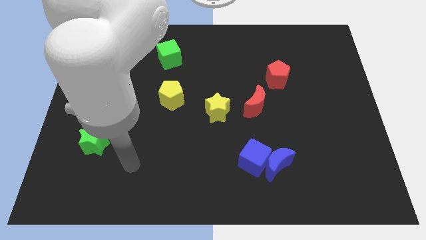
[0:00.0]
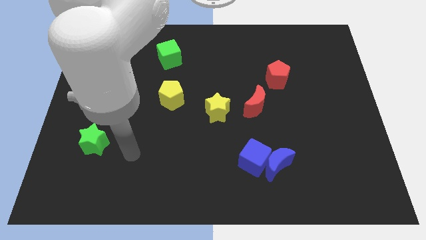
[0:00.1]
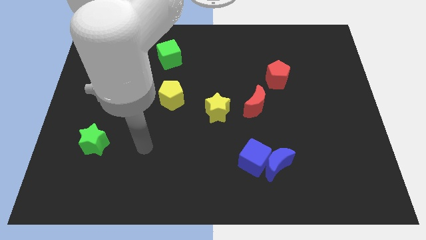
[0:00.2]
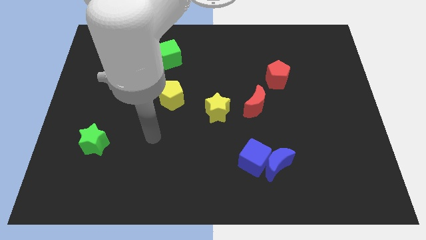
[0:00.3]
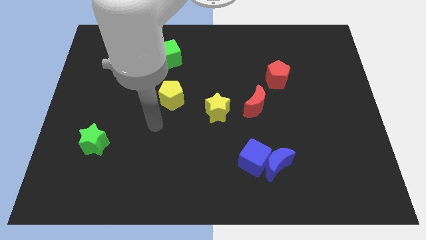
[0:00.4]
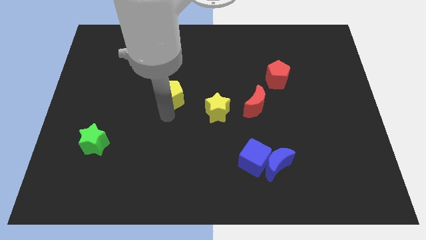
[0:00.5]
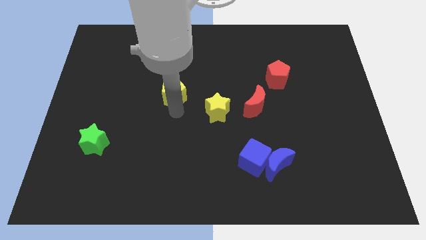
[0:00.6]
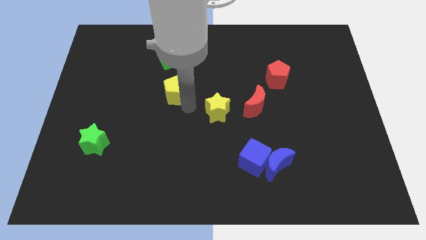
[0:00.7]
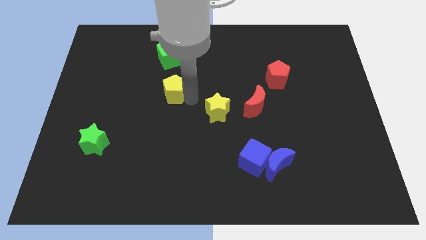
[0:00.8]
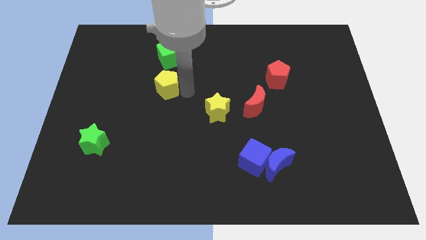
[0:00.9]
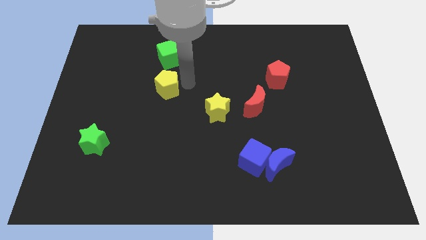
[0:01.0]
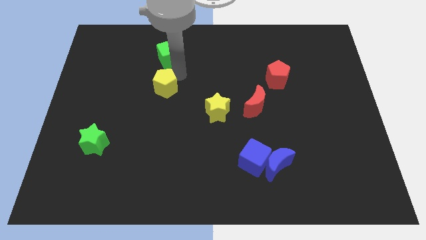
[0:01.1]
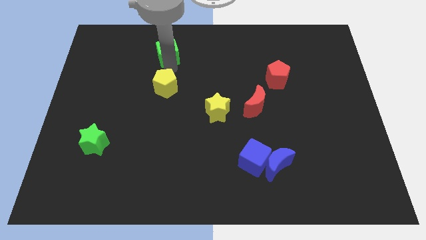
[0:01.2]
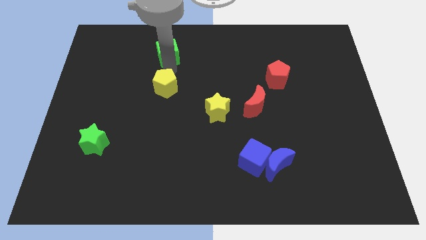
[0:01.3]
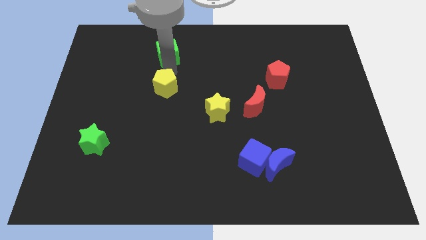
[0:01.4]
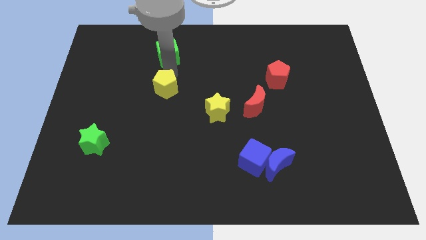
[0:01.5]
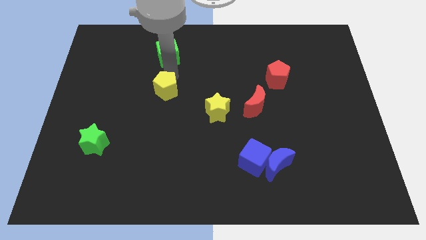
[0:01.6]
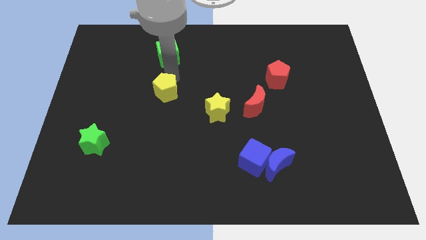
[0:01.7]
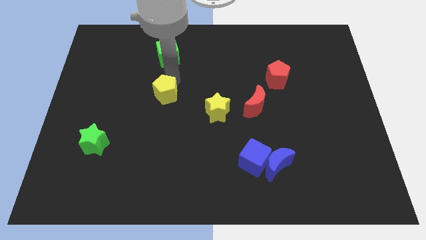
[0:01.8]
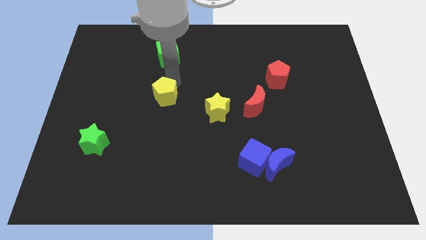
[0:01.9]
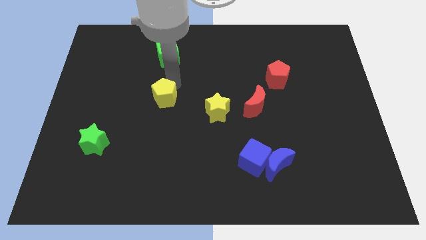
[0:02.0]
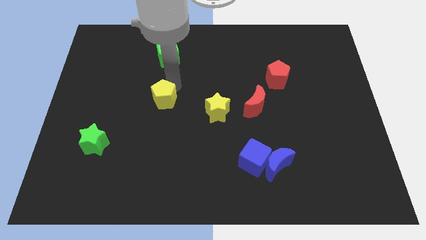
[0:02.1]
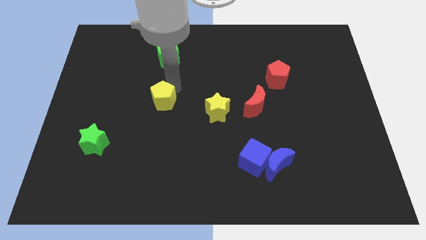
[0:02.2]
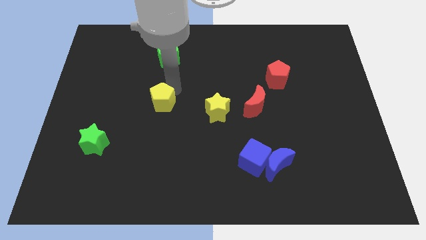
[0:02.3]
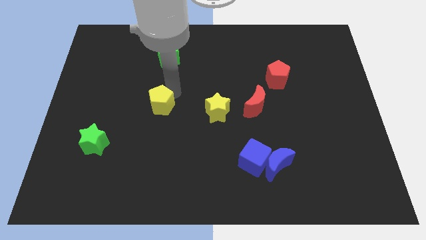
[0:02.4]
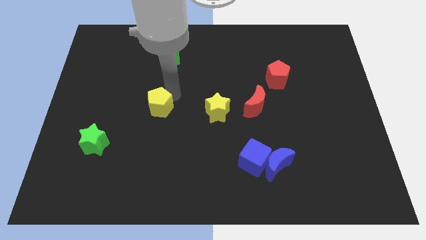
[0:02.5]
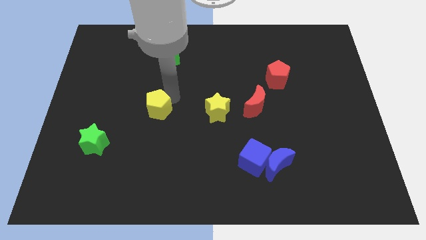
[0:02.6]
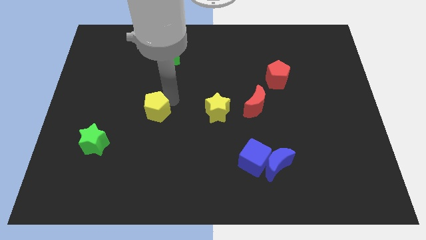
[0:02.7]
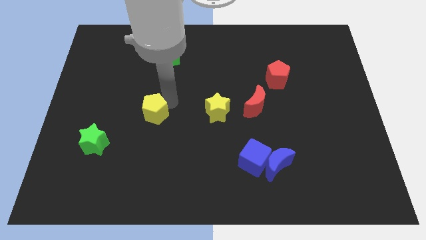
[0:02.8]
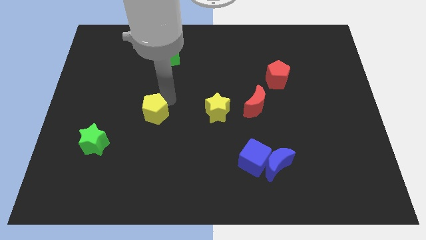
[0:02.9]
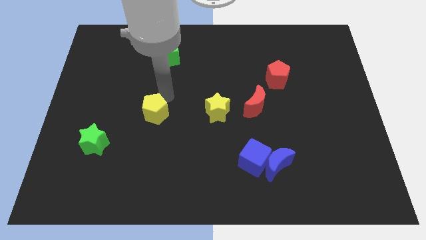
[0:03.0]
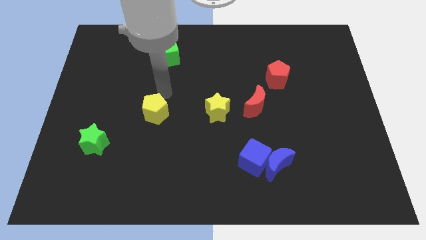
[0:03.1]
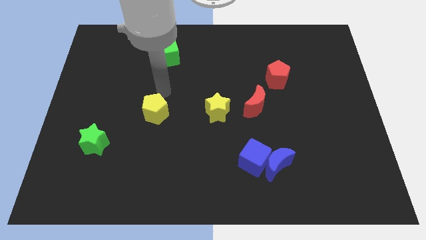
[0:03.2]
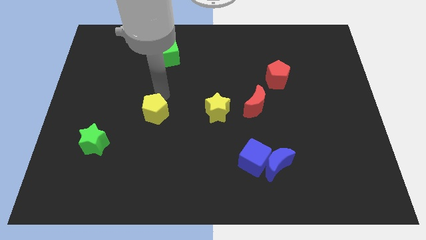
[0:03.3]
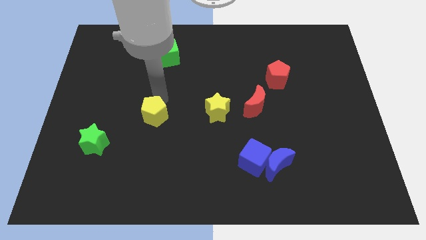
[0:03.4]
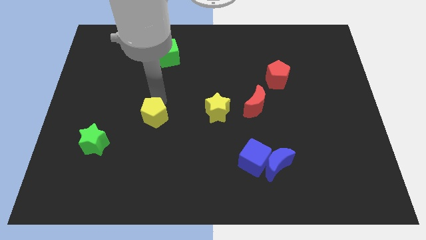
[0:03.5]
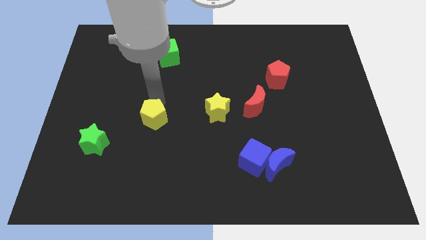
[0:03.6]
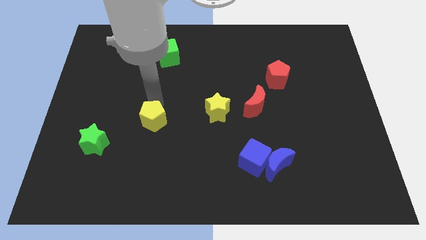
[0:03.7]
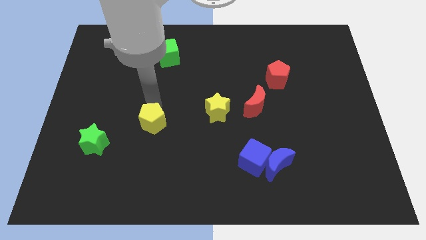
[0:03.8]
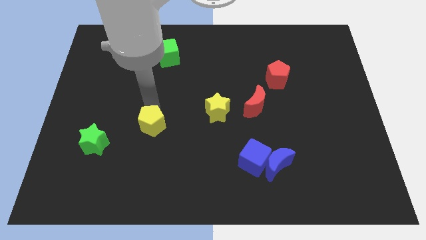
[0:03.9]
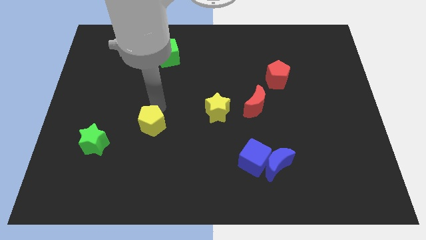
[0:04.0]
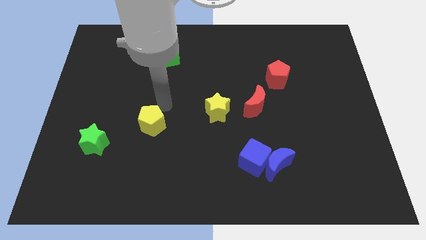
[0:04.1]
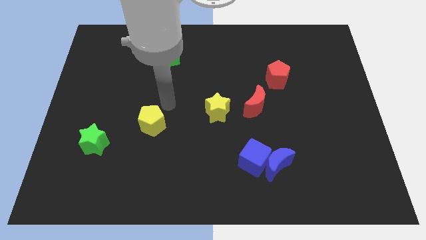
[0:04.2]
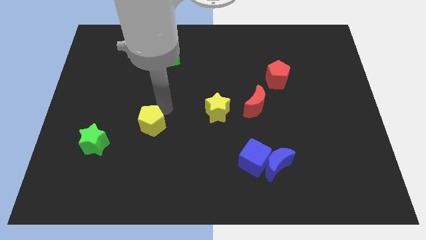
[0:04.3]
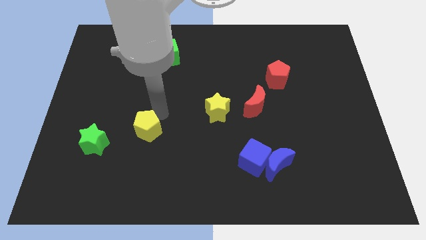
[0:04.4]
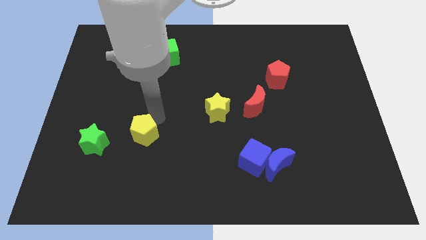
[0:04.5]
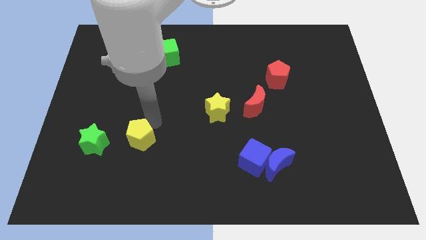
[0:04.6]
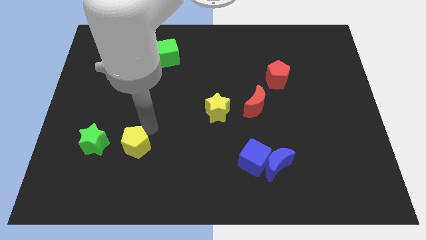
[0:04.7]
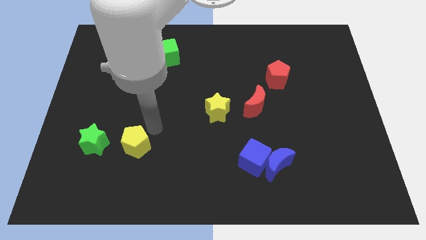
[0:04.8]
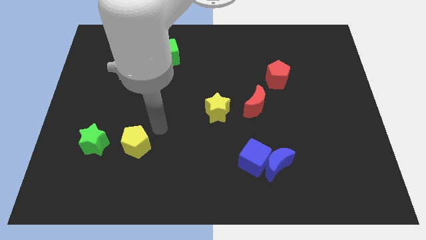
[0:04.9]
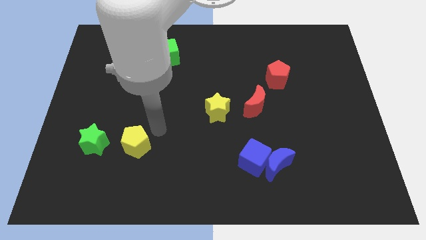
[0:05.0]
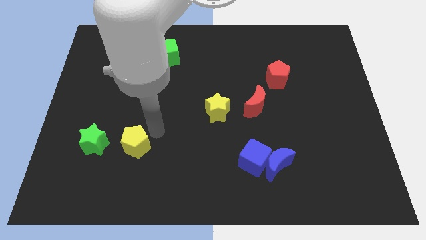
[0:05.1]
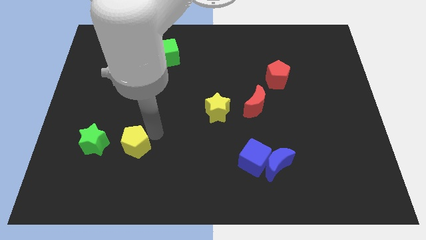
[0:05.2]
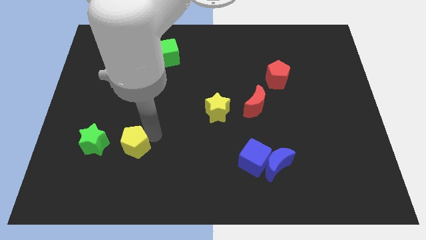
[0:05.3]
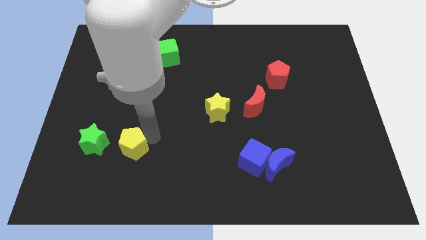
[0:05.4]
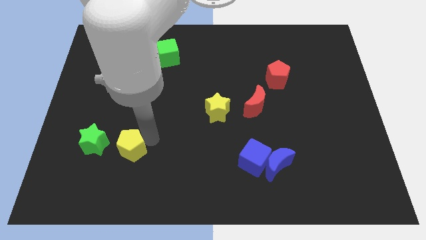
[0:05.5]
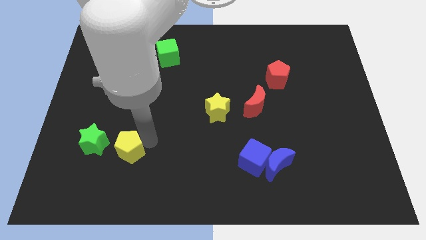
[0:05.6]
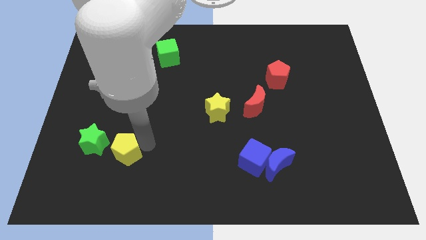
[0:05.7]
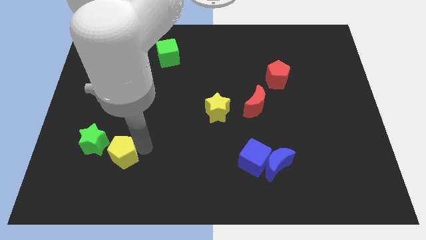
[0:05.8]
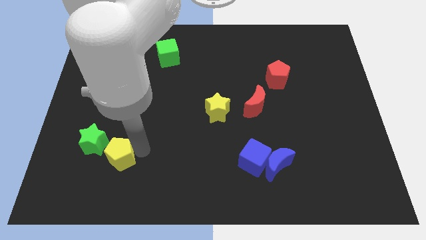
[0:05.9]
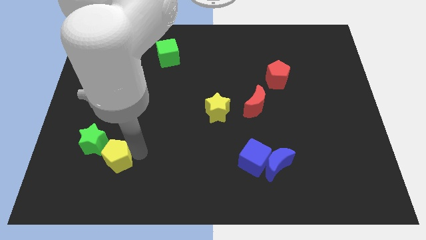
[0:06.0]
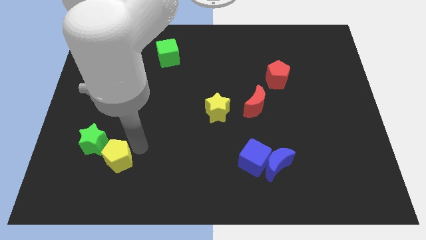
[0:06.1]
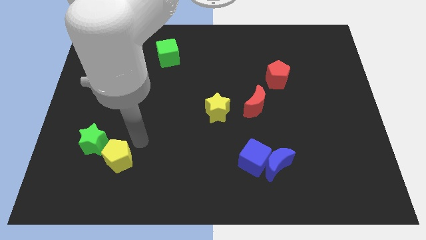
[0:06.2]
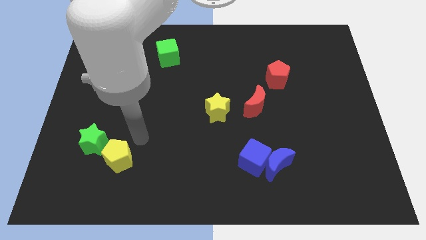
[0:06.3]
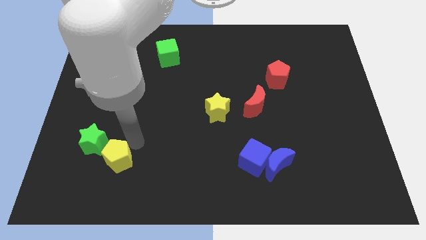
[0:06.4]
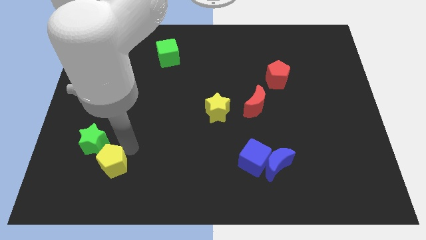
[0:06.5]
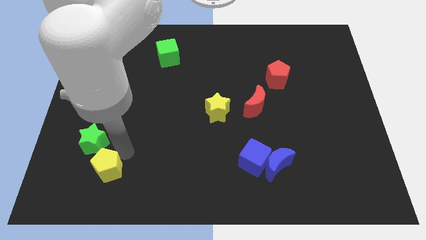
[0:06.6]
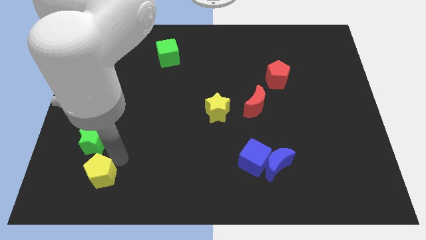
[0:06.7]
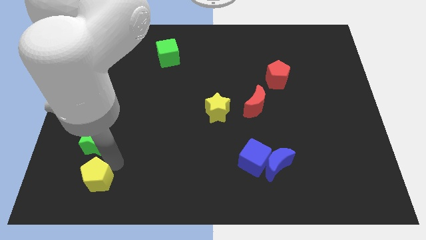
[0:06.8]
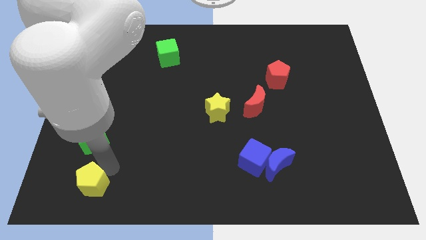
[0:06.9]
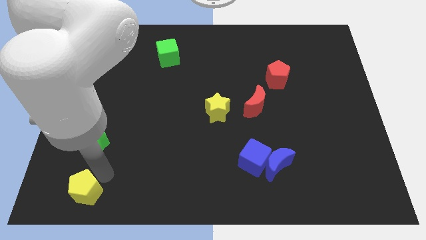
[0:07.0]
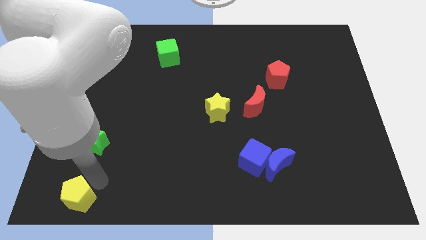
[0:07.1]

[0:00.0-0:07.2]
move the yellow pentagon to the bottom left of the board
